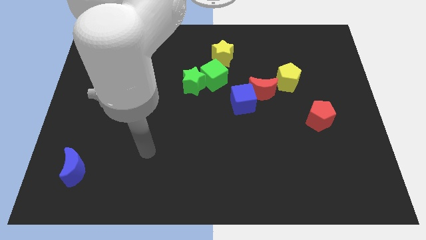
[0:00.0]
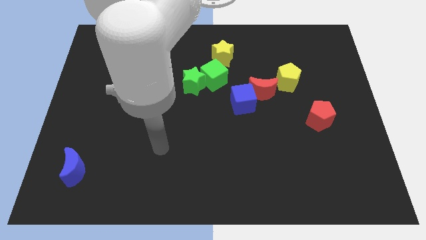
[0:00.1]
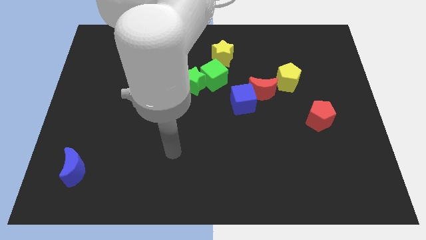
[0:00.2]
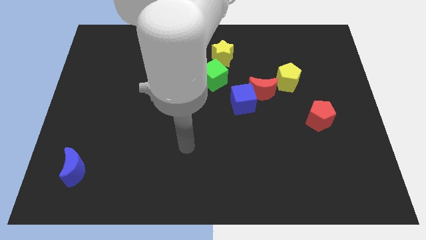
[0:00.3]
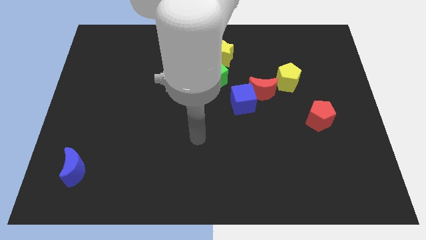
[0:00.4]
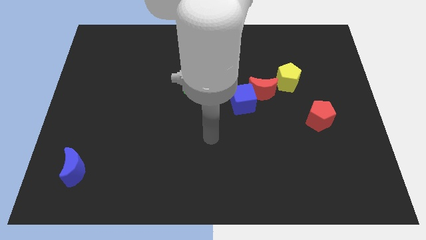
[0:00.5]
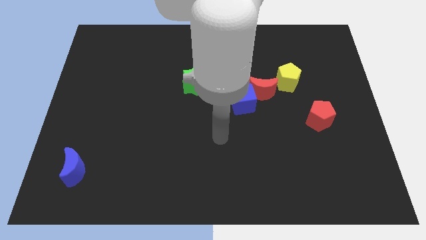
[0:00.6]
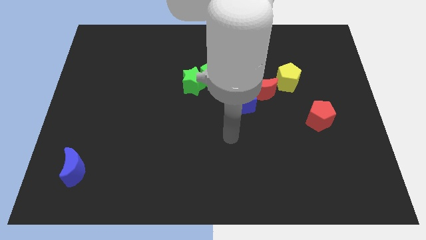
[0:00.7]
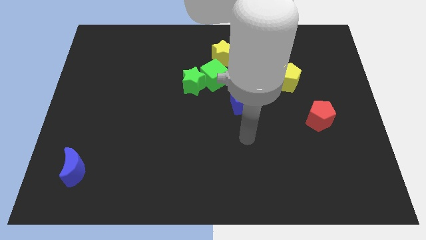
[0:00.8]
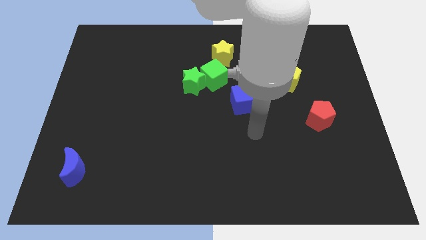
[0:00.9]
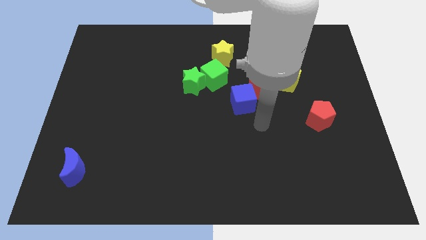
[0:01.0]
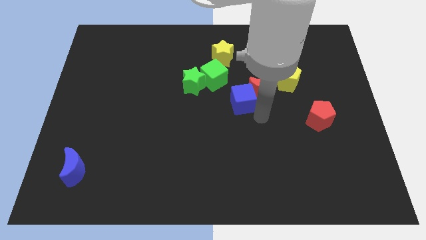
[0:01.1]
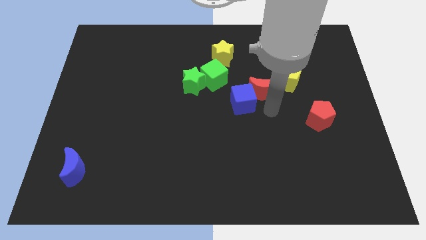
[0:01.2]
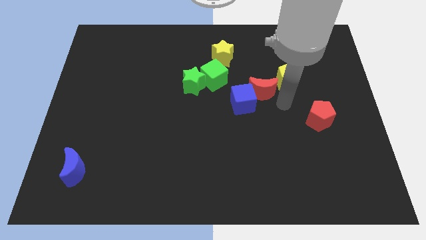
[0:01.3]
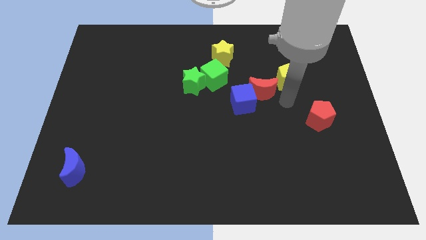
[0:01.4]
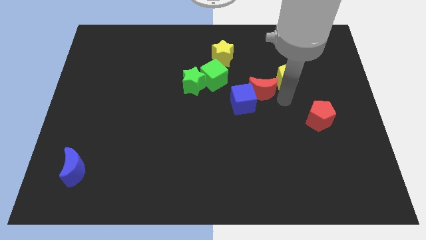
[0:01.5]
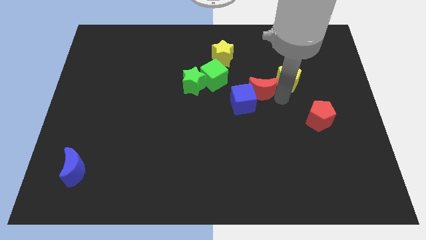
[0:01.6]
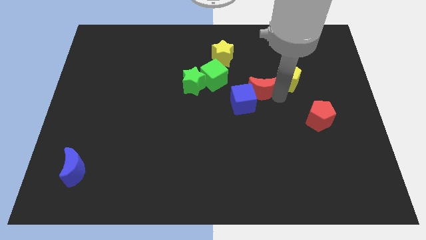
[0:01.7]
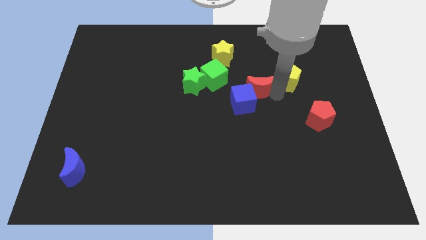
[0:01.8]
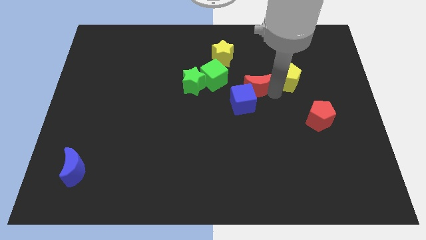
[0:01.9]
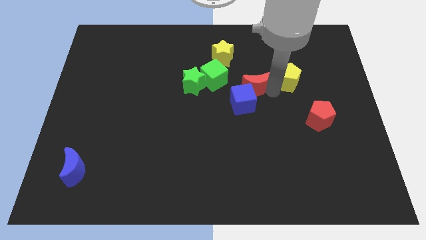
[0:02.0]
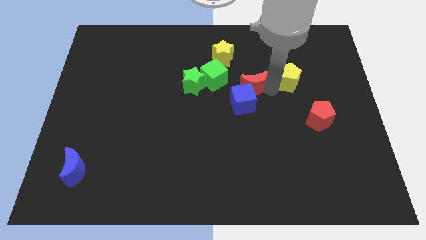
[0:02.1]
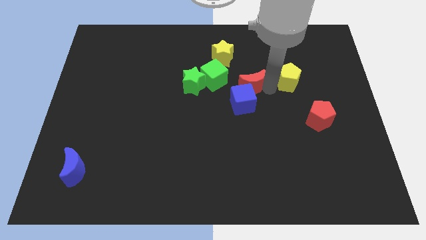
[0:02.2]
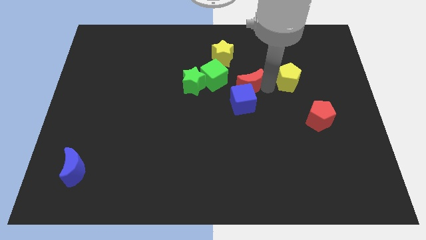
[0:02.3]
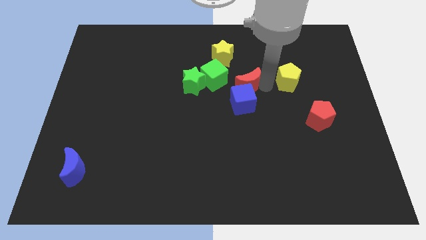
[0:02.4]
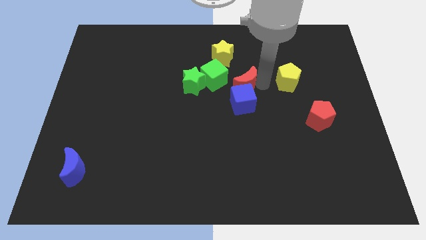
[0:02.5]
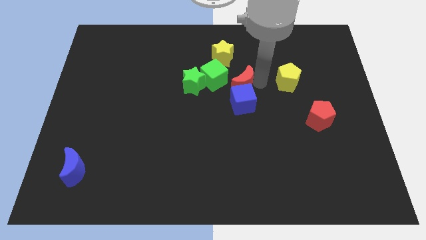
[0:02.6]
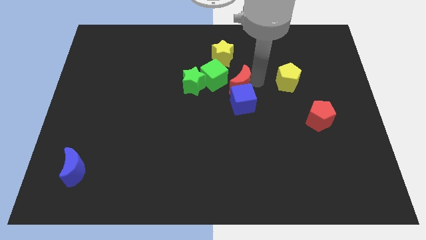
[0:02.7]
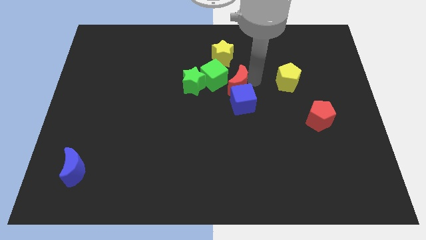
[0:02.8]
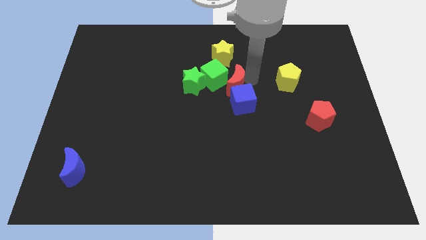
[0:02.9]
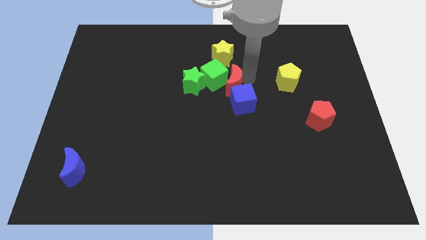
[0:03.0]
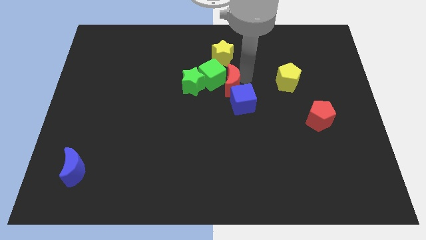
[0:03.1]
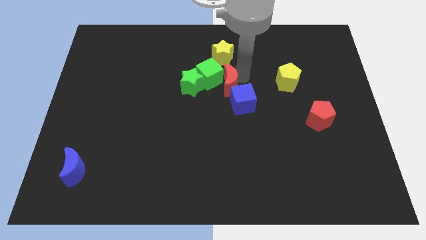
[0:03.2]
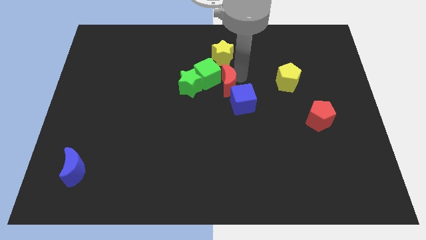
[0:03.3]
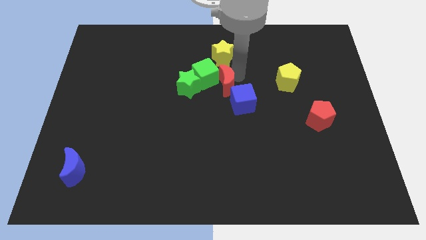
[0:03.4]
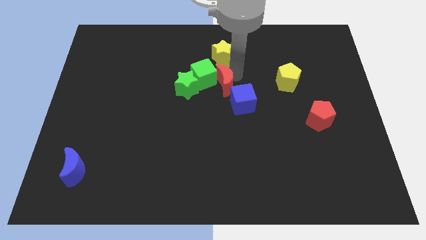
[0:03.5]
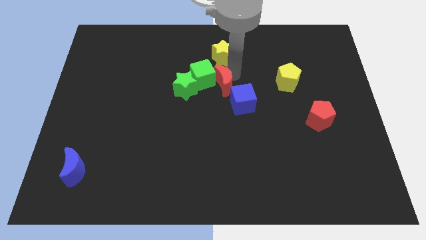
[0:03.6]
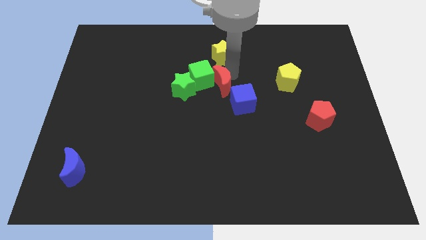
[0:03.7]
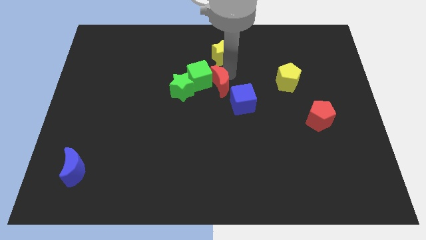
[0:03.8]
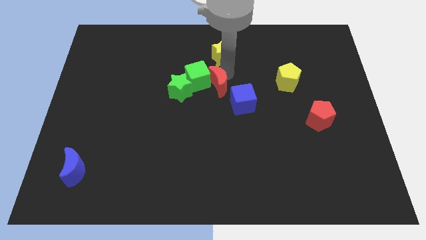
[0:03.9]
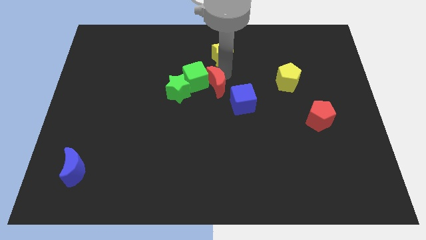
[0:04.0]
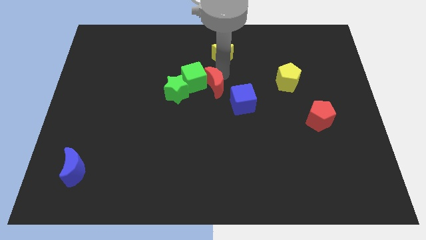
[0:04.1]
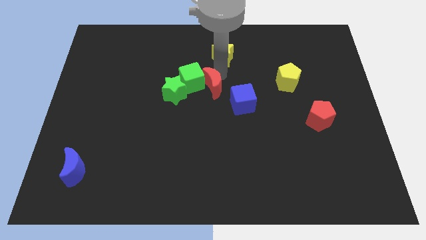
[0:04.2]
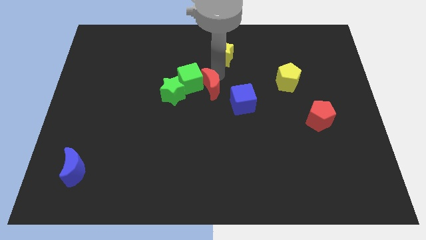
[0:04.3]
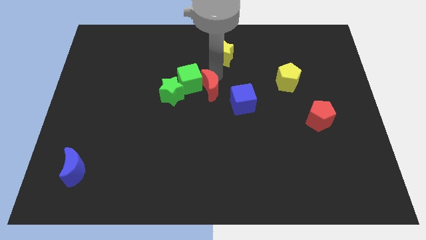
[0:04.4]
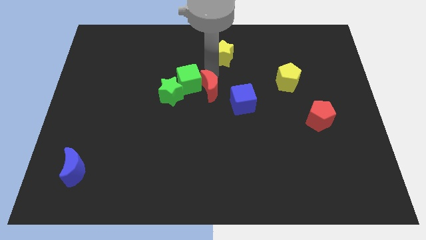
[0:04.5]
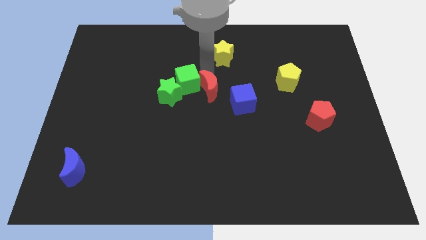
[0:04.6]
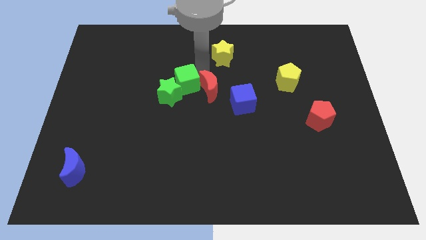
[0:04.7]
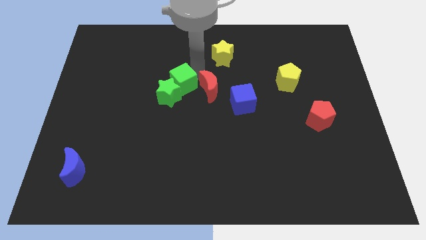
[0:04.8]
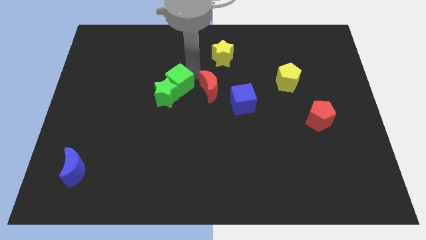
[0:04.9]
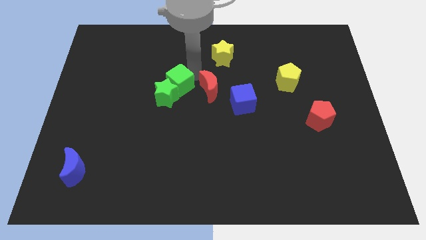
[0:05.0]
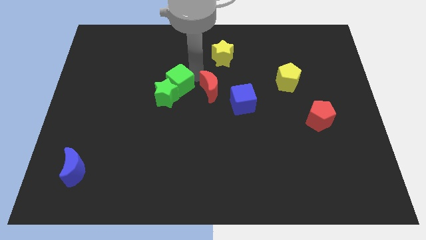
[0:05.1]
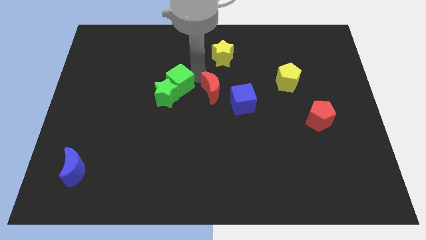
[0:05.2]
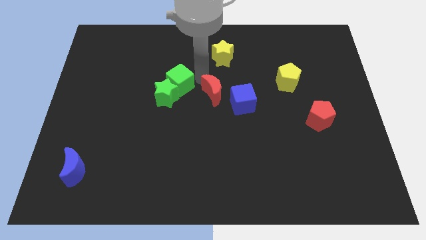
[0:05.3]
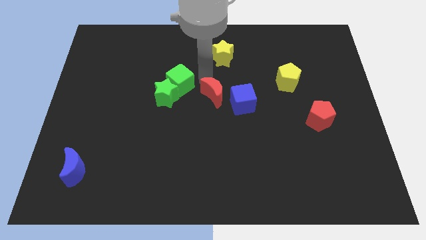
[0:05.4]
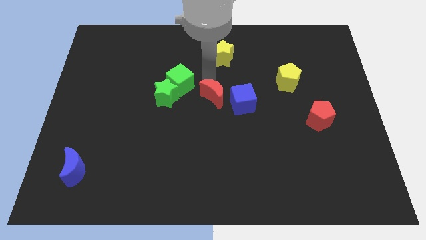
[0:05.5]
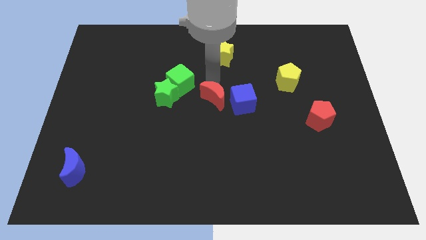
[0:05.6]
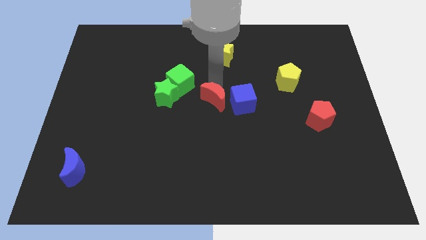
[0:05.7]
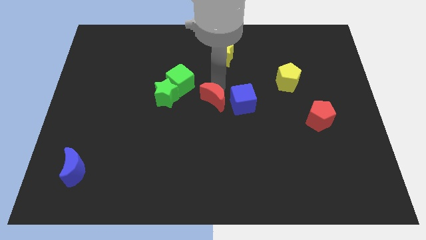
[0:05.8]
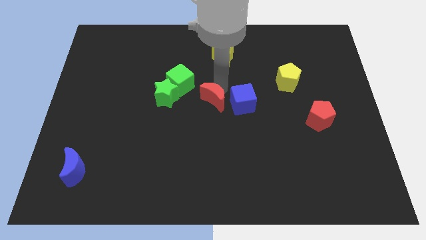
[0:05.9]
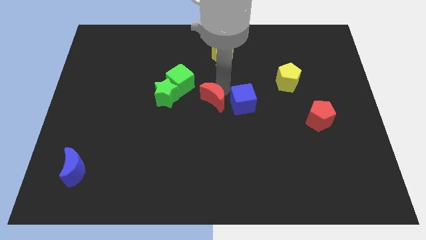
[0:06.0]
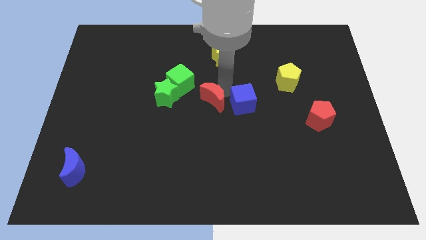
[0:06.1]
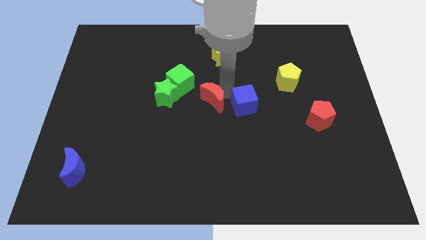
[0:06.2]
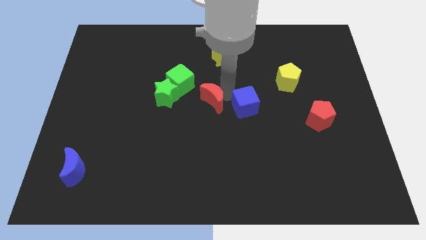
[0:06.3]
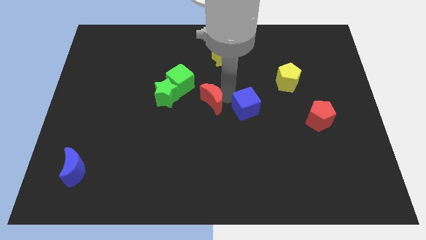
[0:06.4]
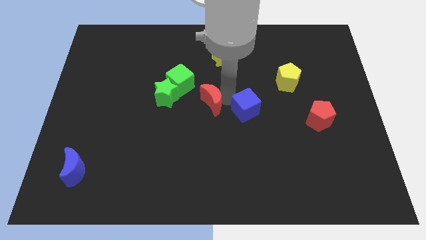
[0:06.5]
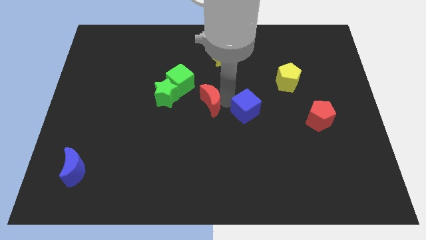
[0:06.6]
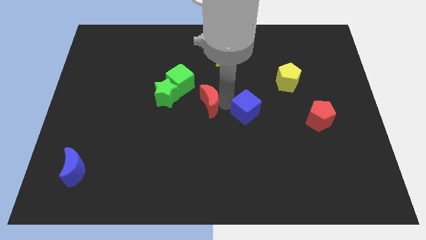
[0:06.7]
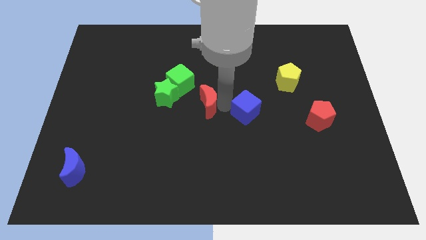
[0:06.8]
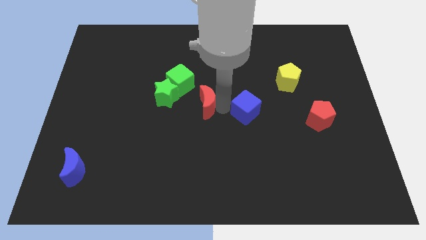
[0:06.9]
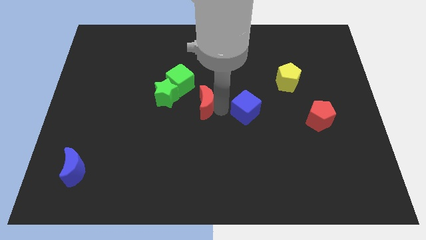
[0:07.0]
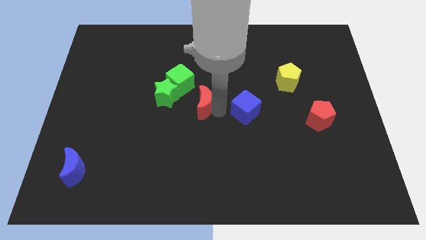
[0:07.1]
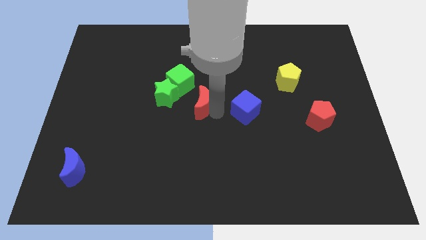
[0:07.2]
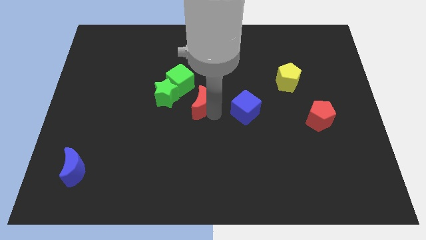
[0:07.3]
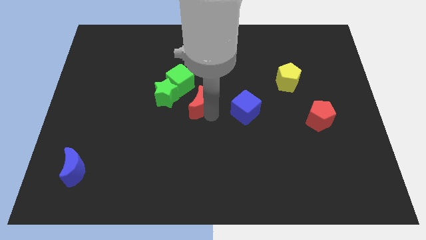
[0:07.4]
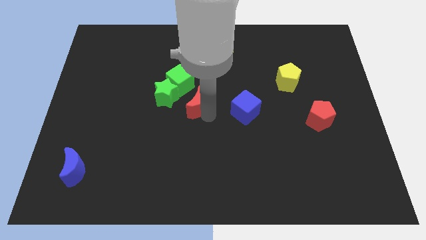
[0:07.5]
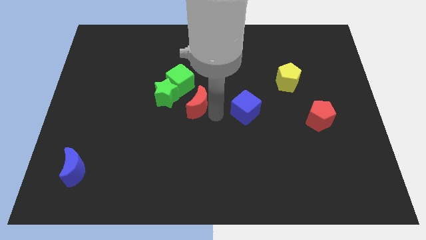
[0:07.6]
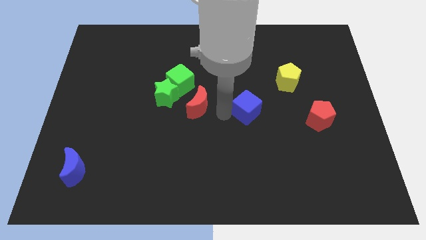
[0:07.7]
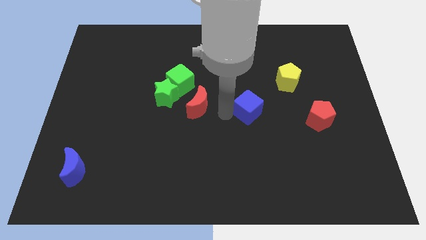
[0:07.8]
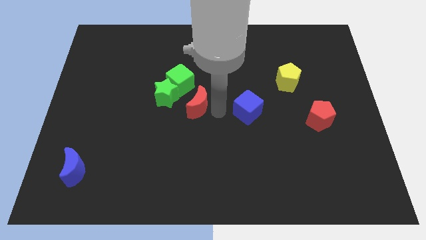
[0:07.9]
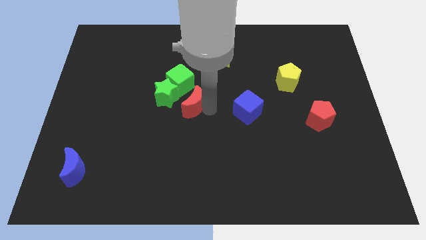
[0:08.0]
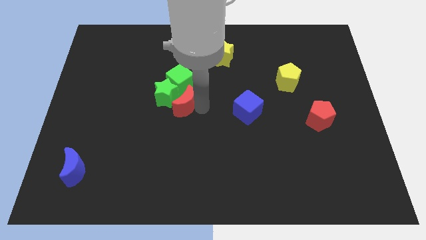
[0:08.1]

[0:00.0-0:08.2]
put the red moon towards the green star
